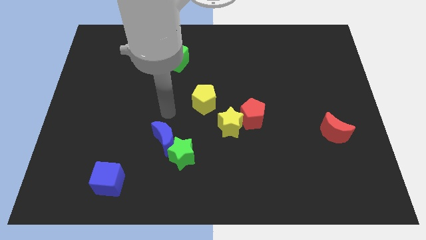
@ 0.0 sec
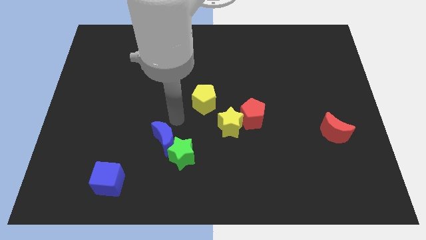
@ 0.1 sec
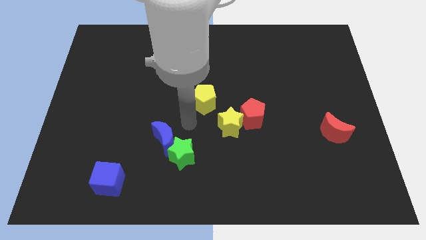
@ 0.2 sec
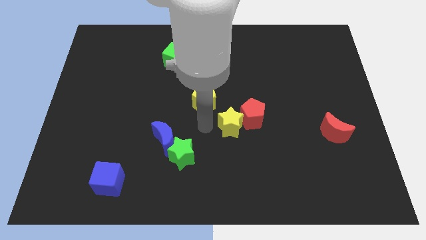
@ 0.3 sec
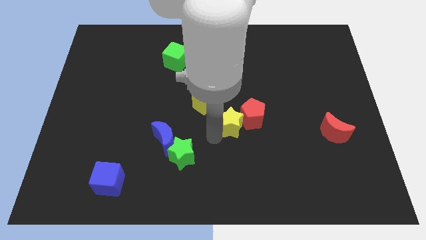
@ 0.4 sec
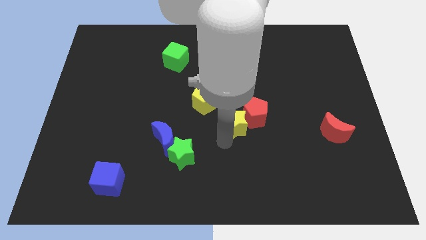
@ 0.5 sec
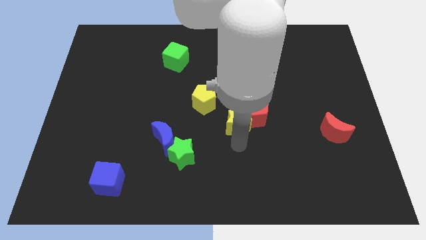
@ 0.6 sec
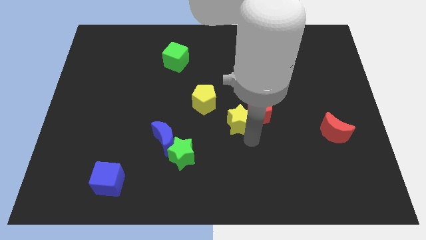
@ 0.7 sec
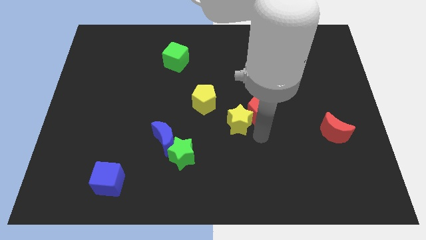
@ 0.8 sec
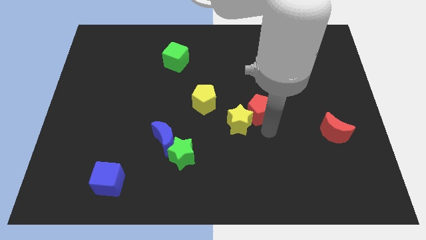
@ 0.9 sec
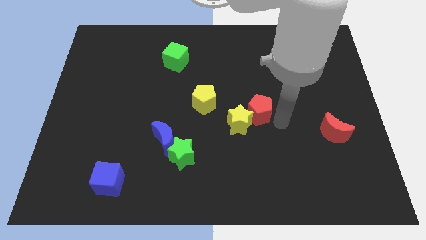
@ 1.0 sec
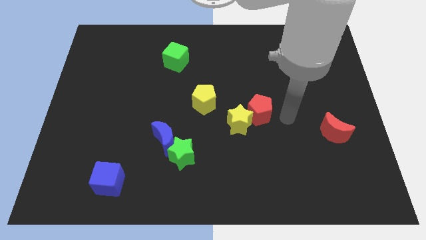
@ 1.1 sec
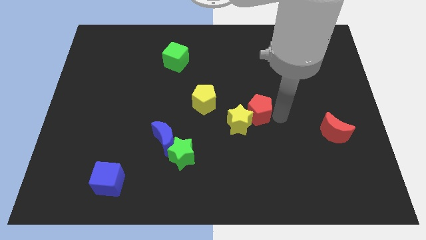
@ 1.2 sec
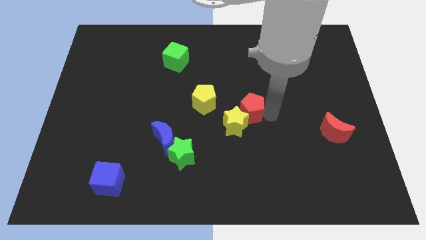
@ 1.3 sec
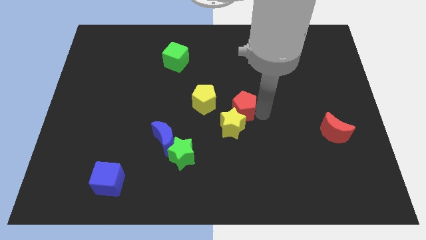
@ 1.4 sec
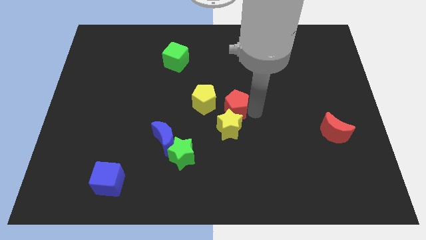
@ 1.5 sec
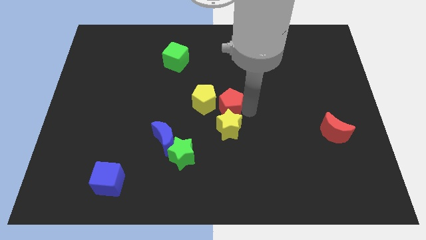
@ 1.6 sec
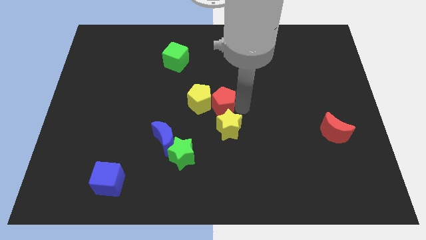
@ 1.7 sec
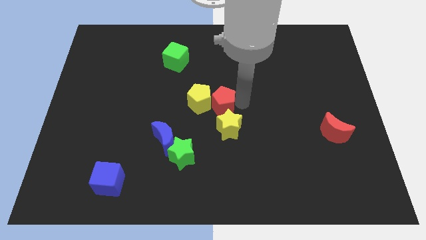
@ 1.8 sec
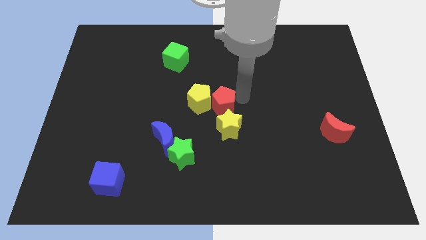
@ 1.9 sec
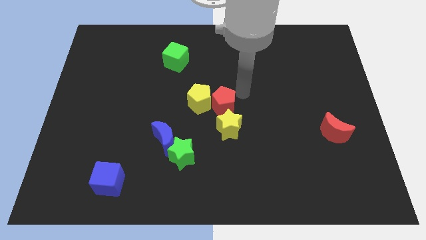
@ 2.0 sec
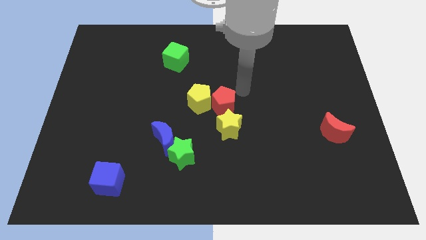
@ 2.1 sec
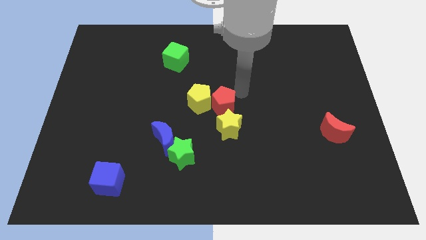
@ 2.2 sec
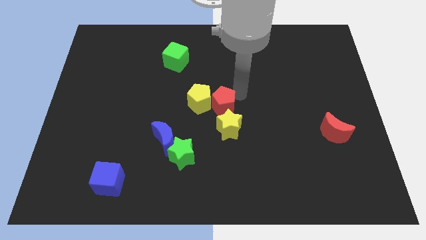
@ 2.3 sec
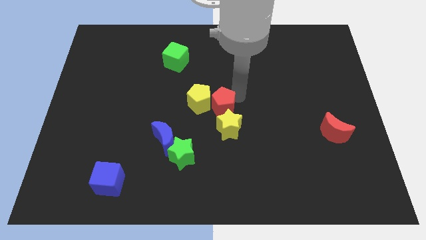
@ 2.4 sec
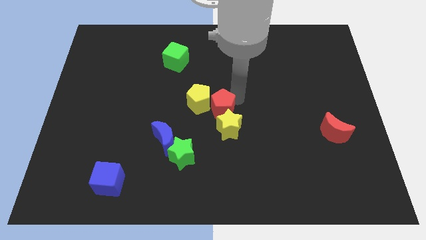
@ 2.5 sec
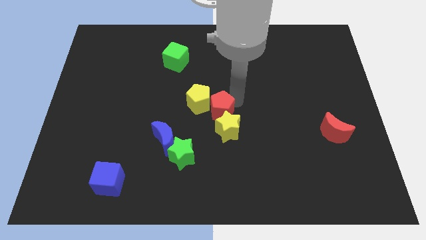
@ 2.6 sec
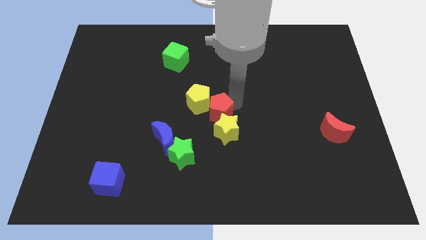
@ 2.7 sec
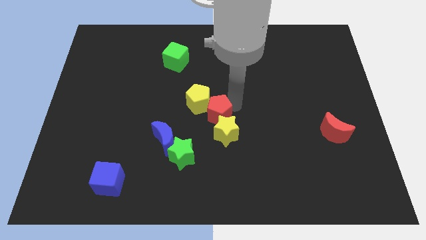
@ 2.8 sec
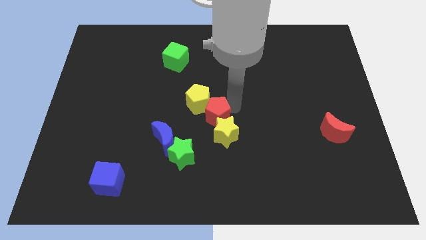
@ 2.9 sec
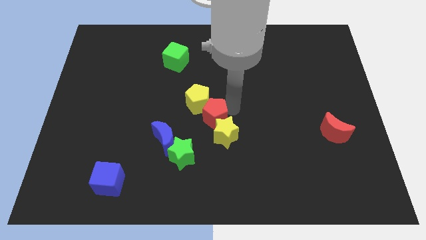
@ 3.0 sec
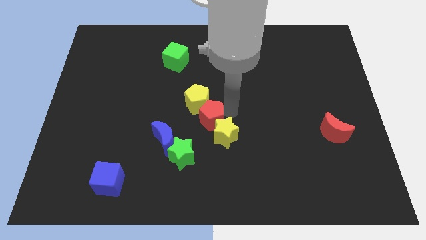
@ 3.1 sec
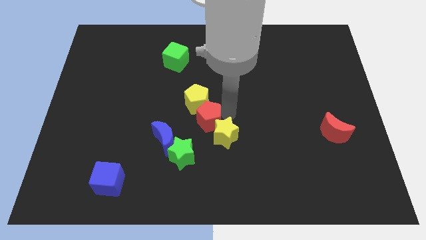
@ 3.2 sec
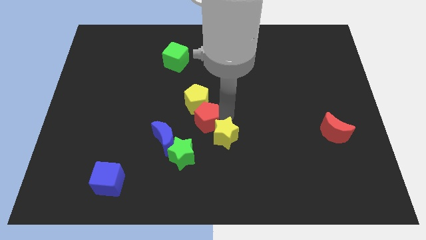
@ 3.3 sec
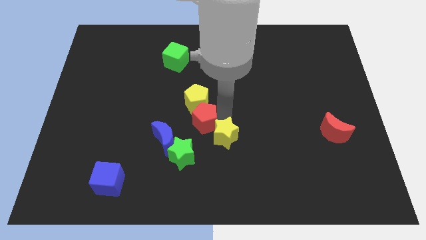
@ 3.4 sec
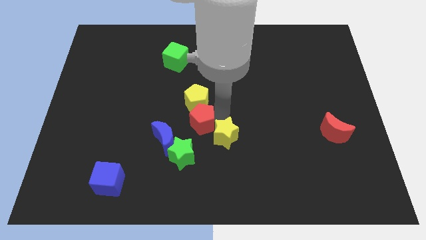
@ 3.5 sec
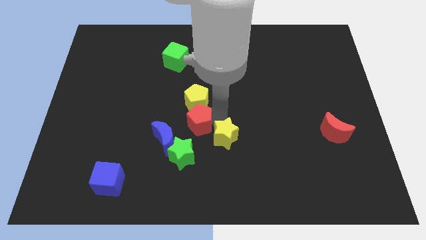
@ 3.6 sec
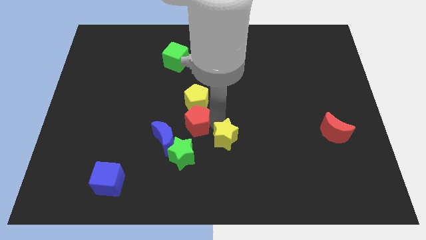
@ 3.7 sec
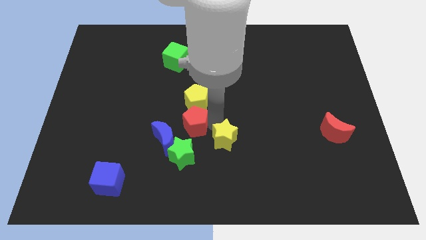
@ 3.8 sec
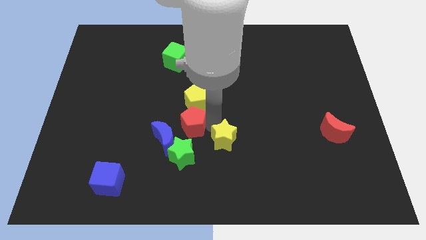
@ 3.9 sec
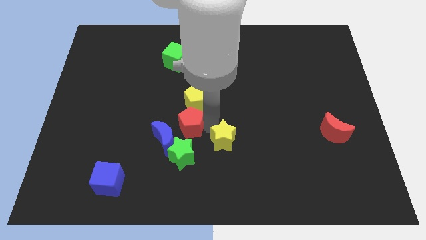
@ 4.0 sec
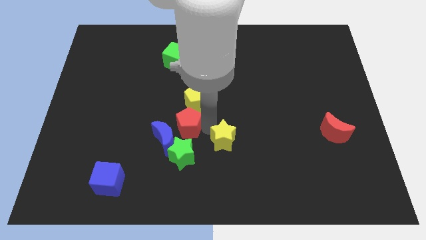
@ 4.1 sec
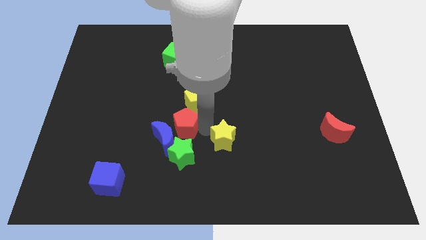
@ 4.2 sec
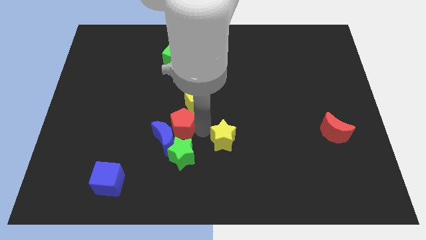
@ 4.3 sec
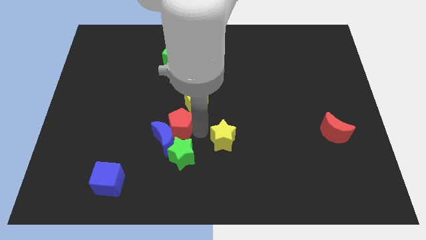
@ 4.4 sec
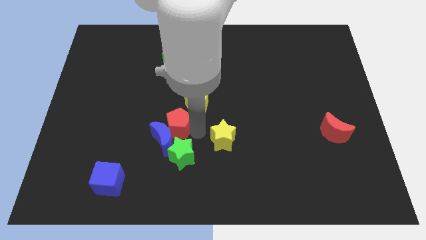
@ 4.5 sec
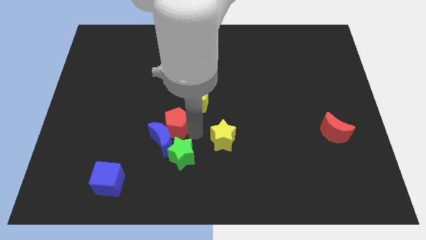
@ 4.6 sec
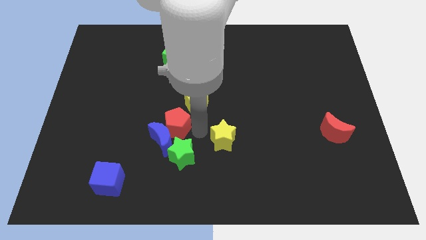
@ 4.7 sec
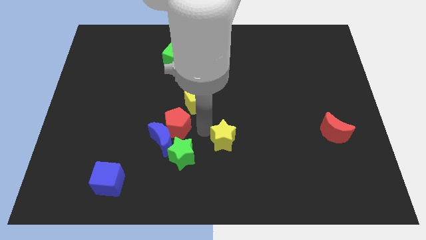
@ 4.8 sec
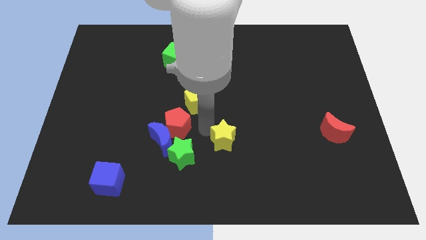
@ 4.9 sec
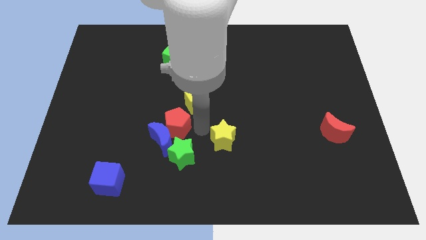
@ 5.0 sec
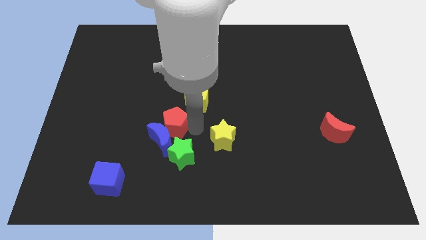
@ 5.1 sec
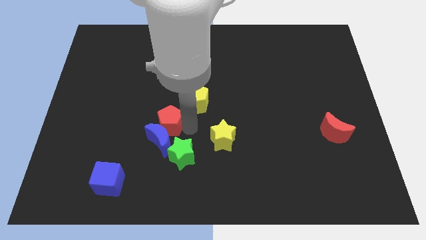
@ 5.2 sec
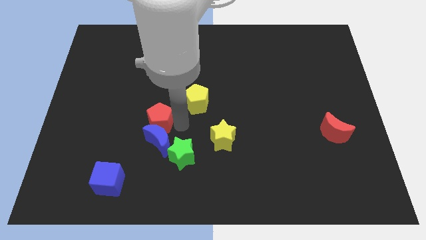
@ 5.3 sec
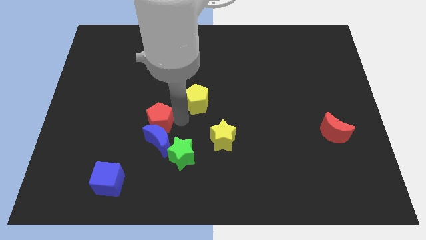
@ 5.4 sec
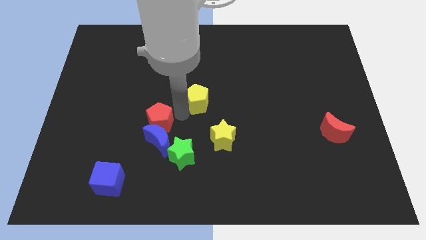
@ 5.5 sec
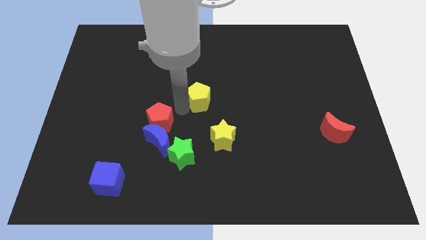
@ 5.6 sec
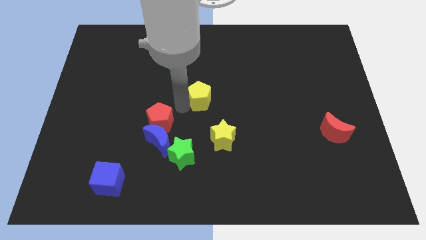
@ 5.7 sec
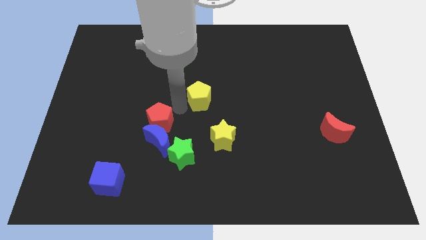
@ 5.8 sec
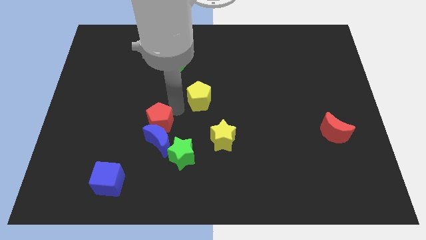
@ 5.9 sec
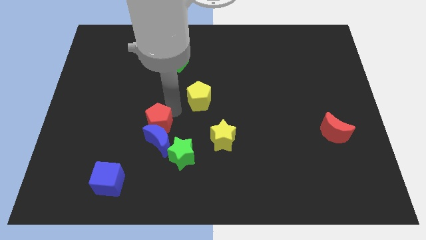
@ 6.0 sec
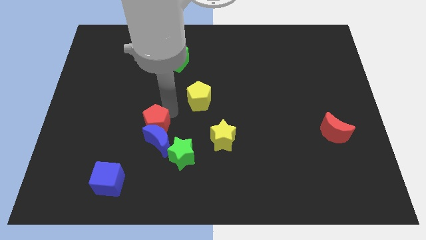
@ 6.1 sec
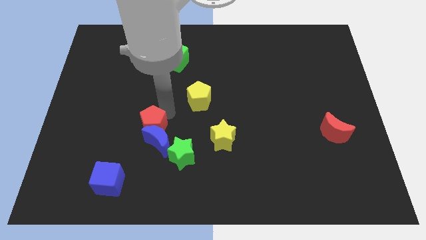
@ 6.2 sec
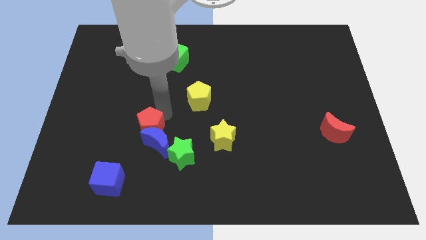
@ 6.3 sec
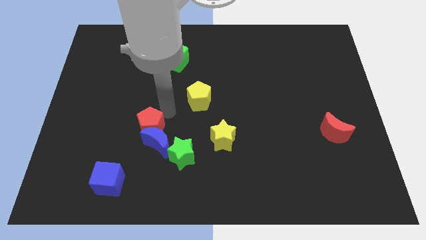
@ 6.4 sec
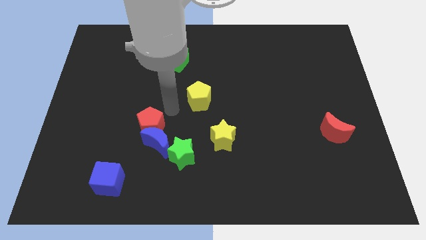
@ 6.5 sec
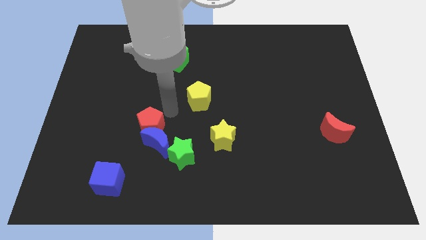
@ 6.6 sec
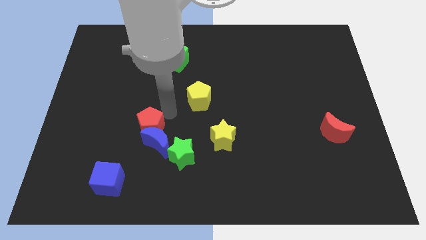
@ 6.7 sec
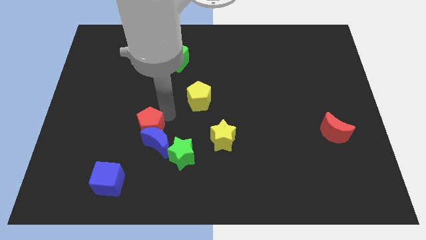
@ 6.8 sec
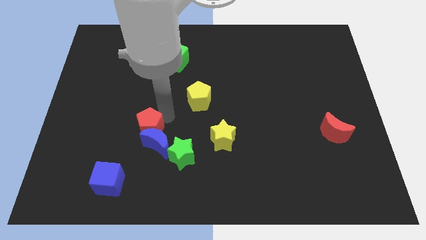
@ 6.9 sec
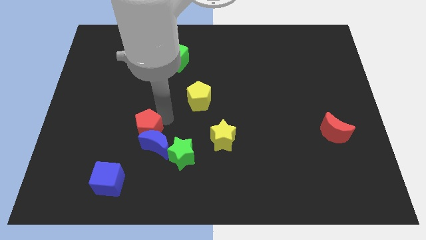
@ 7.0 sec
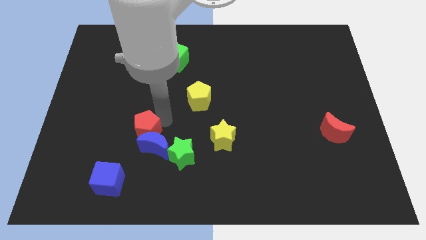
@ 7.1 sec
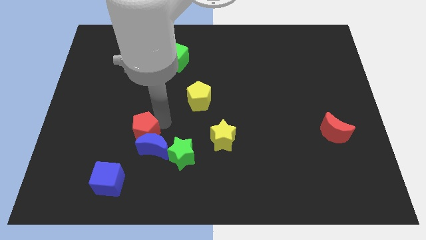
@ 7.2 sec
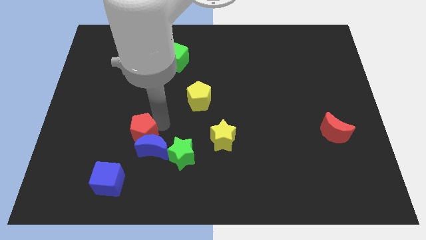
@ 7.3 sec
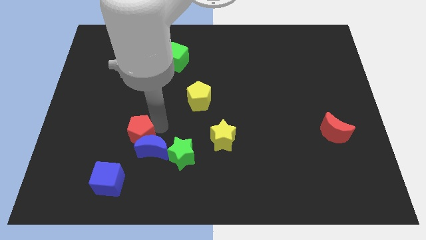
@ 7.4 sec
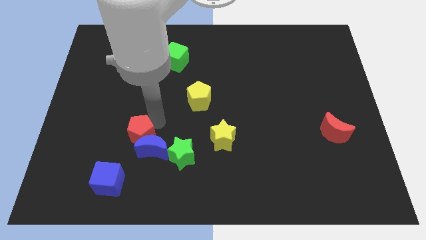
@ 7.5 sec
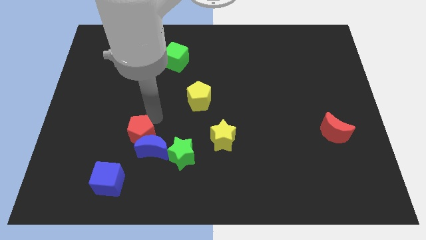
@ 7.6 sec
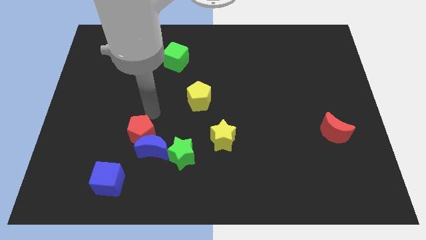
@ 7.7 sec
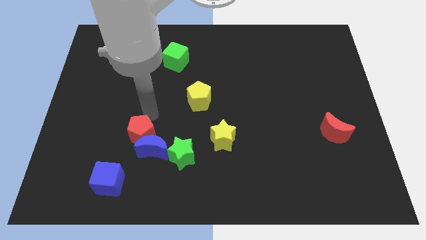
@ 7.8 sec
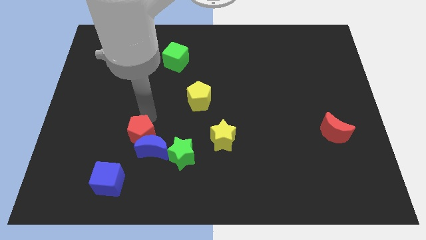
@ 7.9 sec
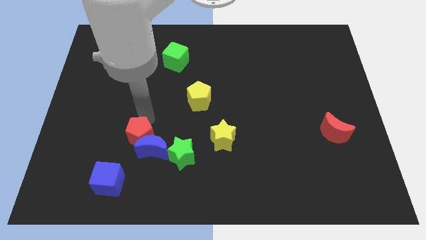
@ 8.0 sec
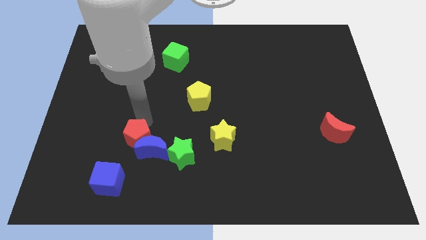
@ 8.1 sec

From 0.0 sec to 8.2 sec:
slide the red pentagon to the left side of the green star
